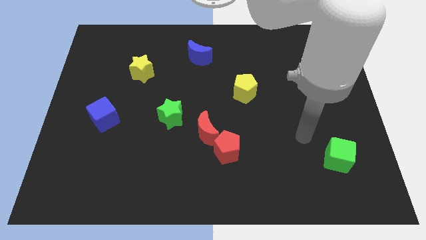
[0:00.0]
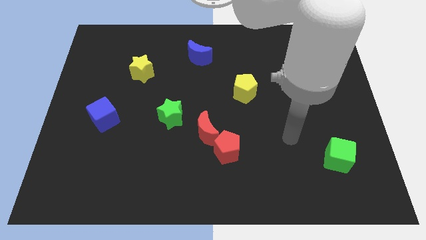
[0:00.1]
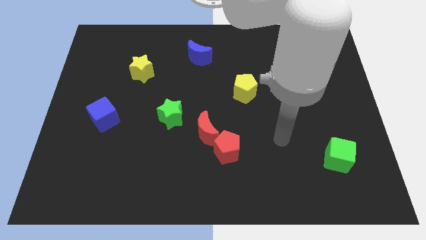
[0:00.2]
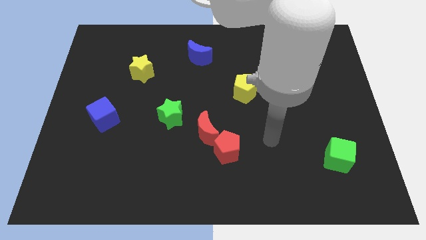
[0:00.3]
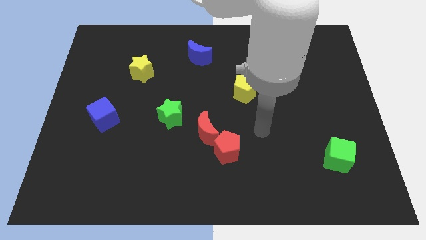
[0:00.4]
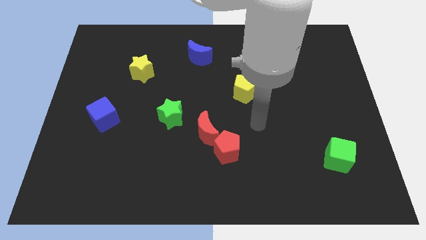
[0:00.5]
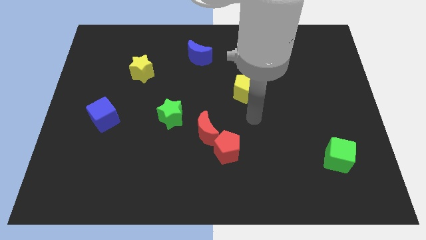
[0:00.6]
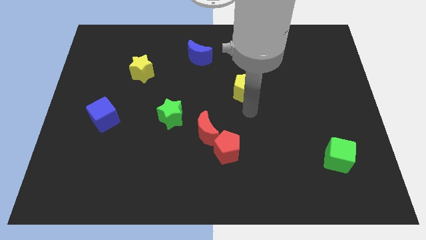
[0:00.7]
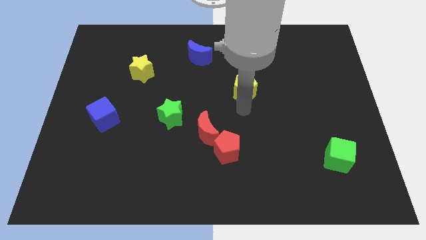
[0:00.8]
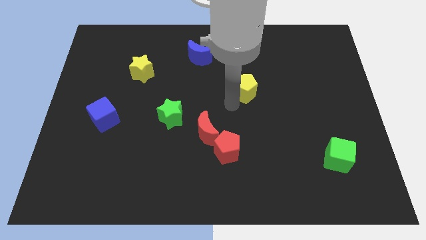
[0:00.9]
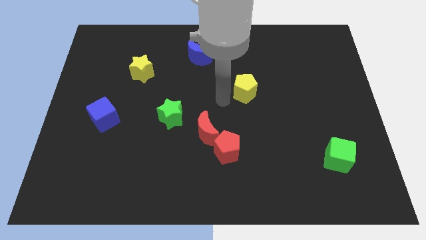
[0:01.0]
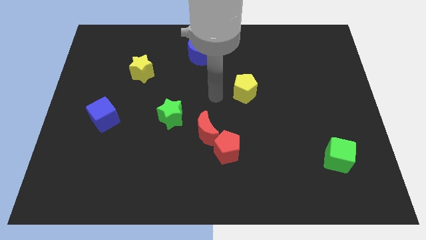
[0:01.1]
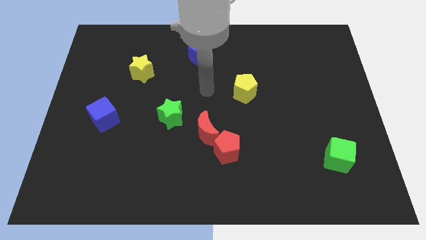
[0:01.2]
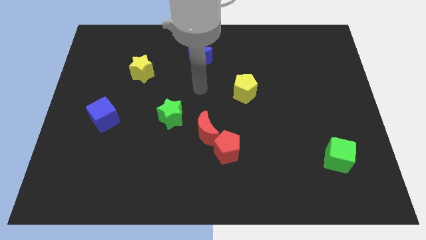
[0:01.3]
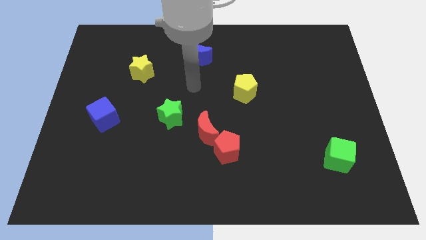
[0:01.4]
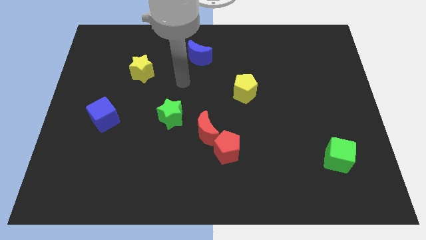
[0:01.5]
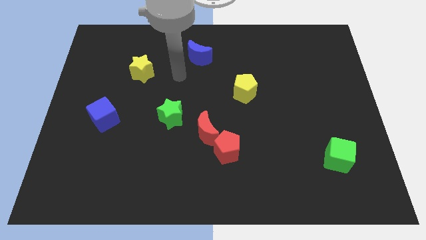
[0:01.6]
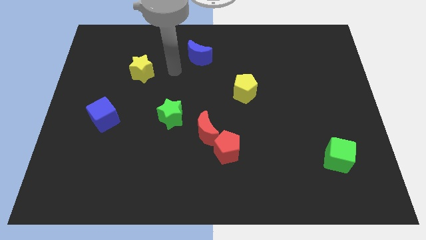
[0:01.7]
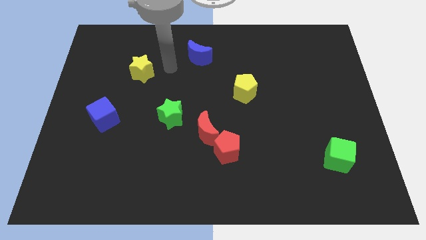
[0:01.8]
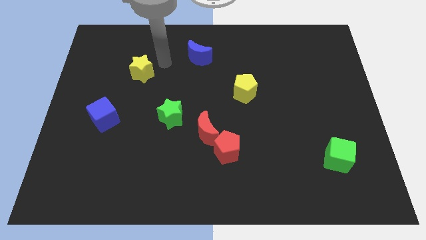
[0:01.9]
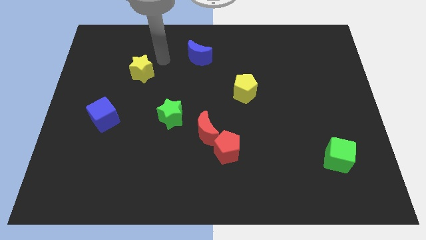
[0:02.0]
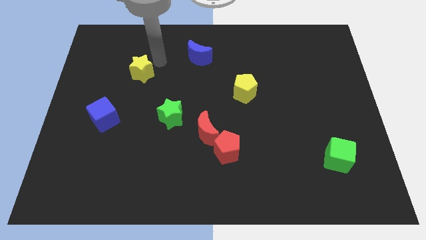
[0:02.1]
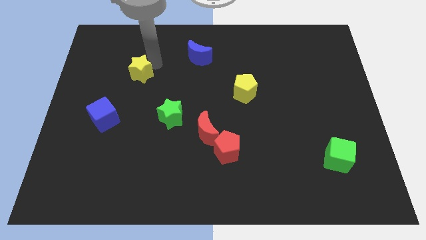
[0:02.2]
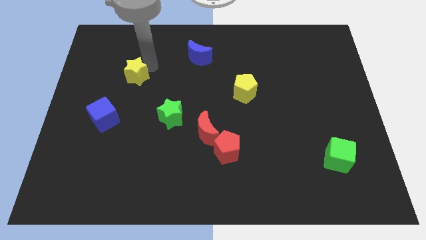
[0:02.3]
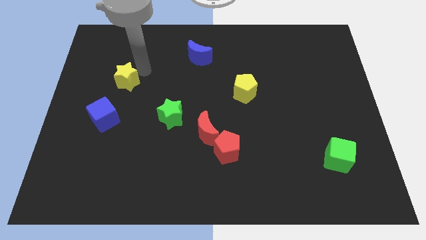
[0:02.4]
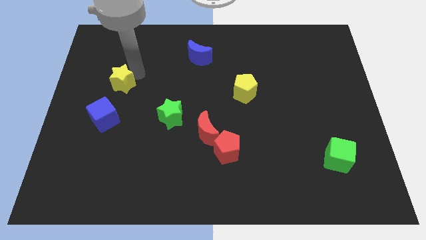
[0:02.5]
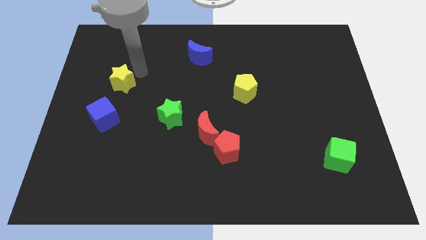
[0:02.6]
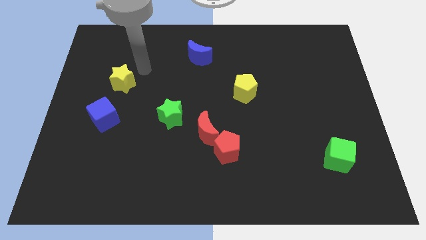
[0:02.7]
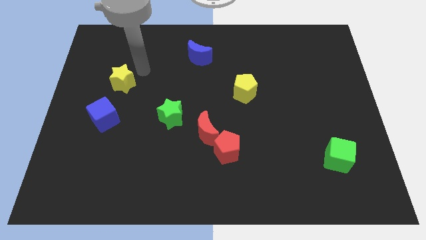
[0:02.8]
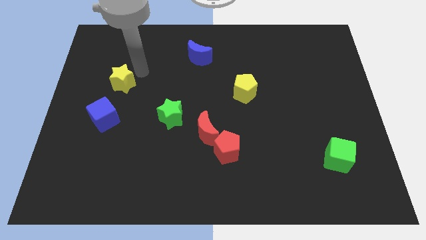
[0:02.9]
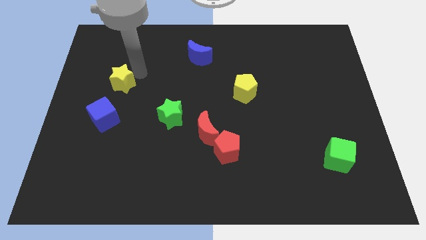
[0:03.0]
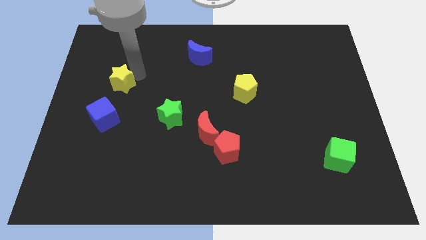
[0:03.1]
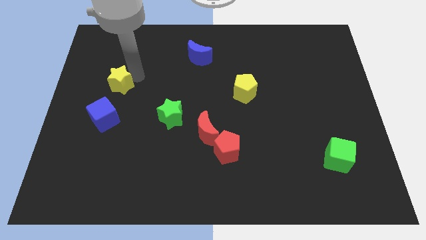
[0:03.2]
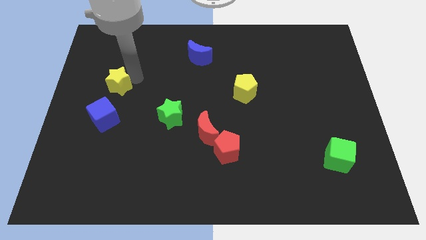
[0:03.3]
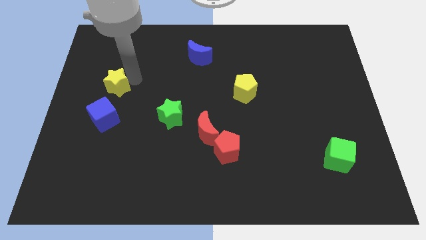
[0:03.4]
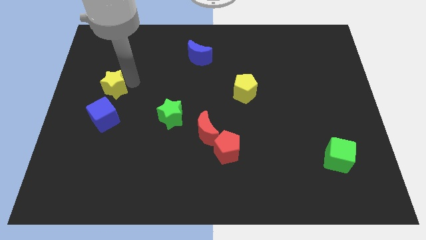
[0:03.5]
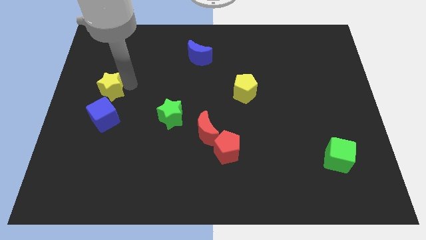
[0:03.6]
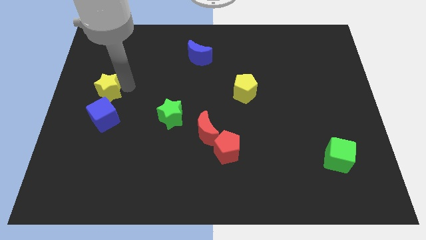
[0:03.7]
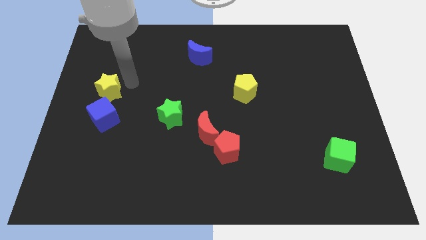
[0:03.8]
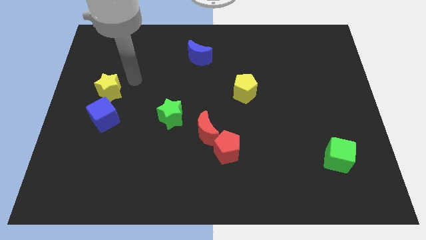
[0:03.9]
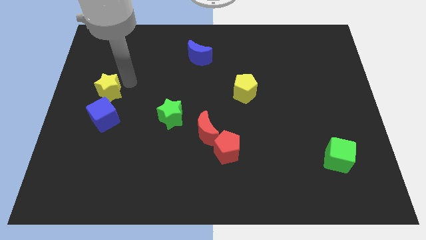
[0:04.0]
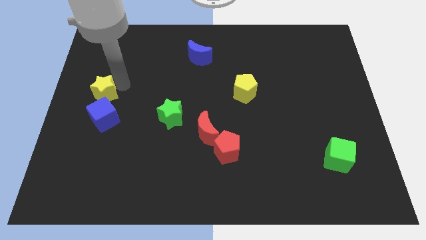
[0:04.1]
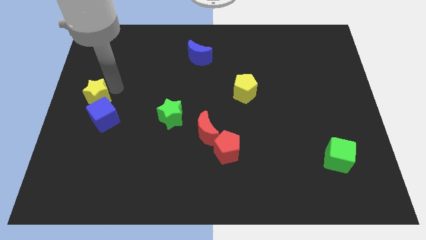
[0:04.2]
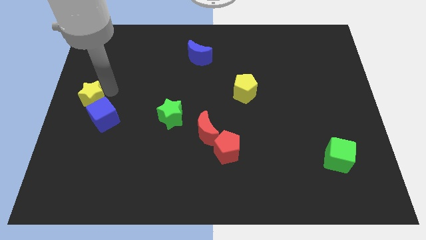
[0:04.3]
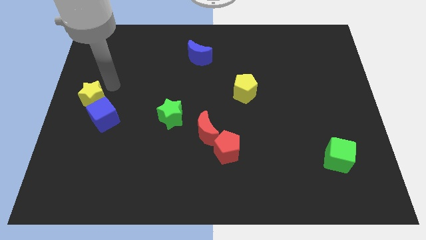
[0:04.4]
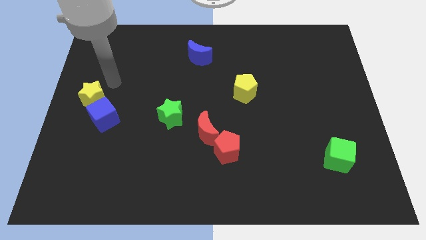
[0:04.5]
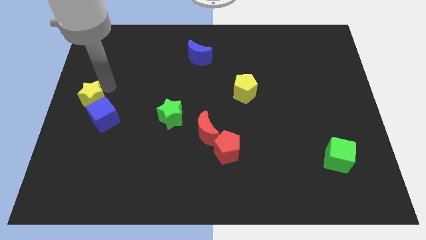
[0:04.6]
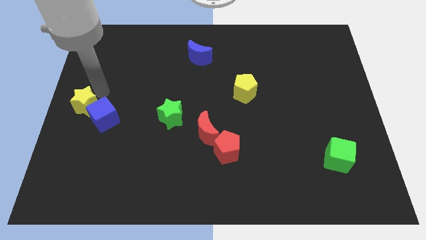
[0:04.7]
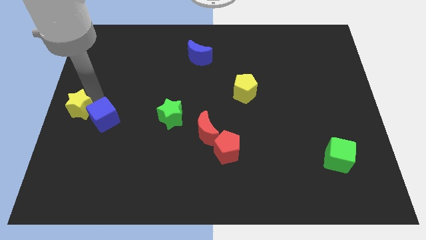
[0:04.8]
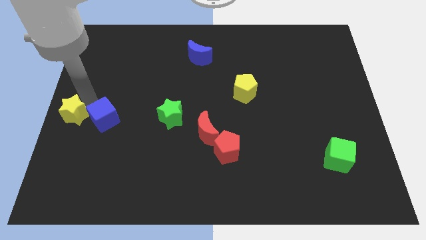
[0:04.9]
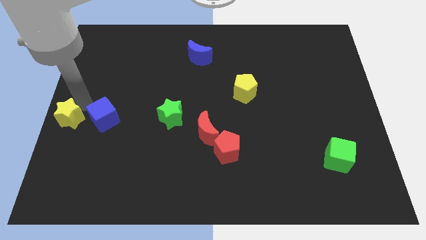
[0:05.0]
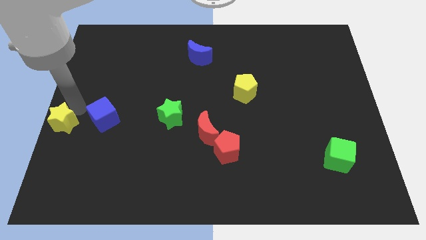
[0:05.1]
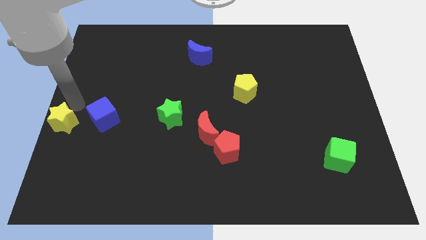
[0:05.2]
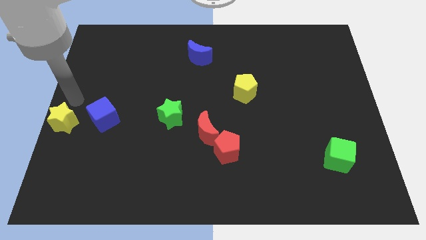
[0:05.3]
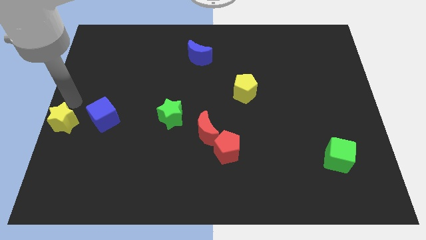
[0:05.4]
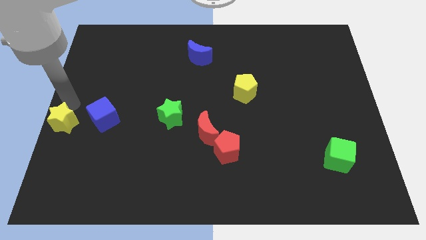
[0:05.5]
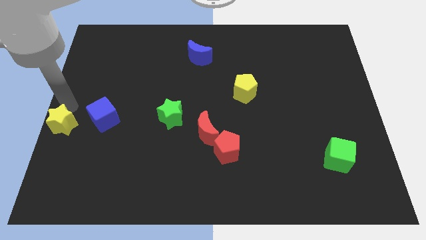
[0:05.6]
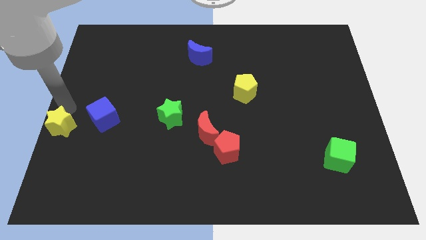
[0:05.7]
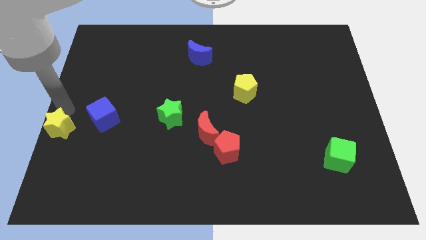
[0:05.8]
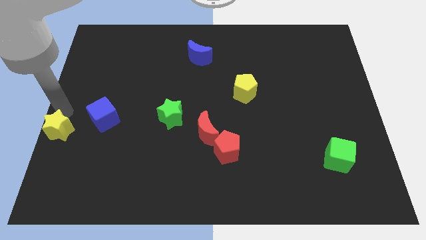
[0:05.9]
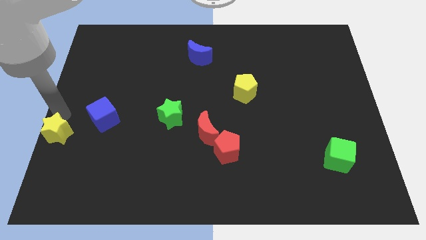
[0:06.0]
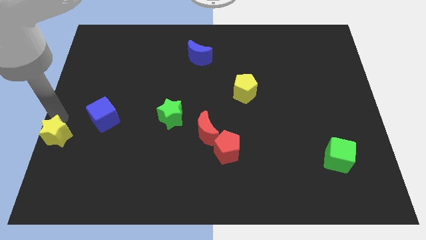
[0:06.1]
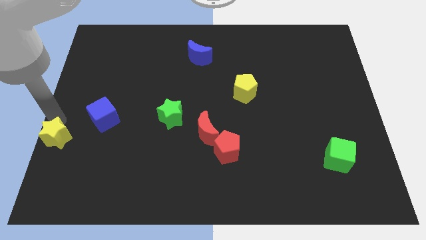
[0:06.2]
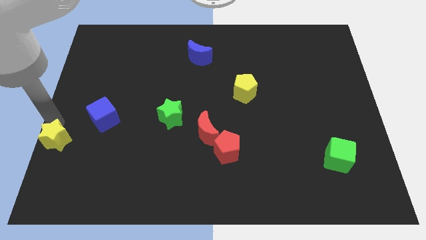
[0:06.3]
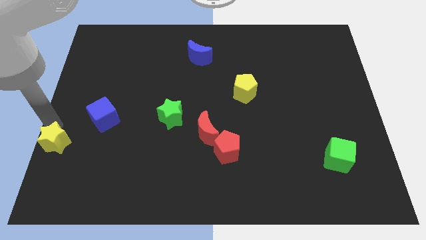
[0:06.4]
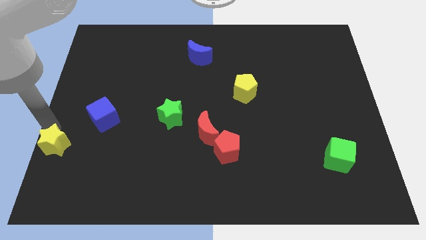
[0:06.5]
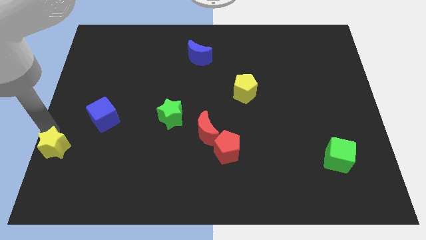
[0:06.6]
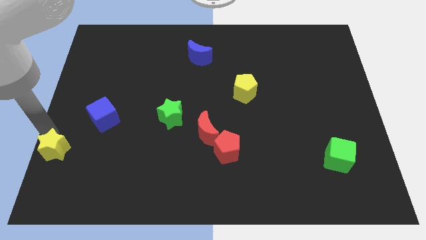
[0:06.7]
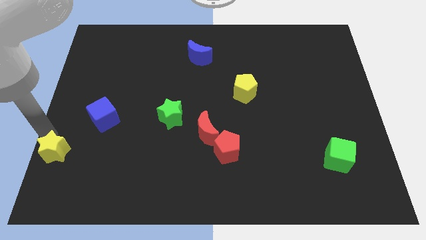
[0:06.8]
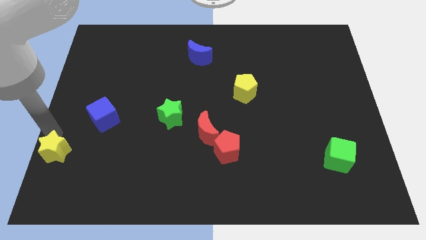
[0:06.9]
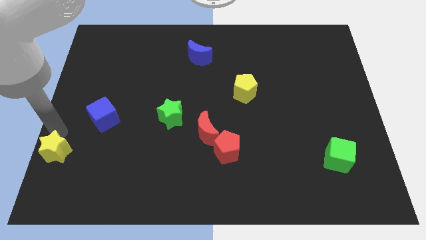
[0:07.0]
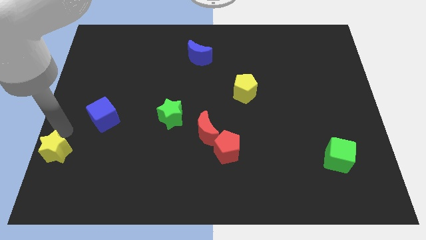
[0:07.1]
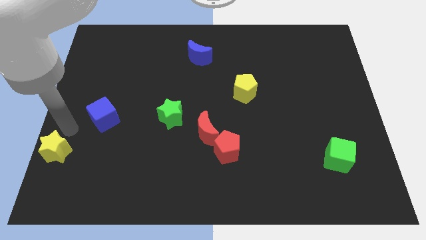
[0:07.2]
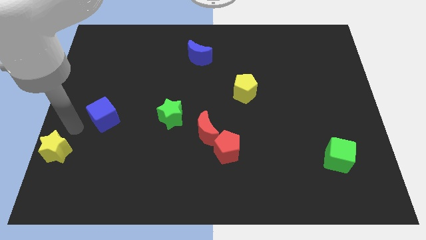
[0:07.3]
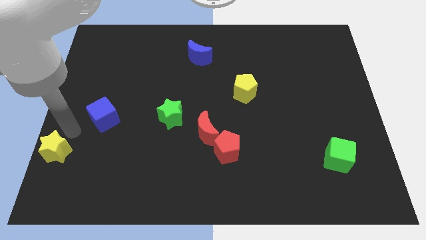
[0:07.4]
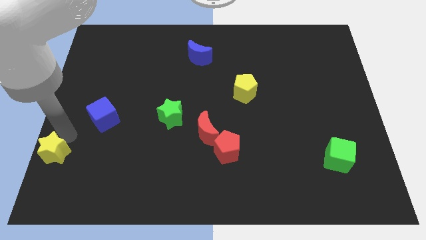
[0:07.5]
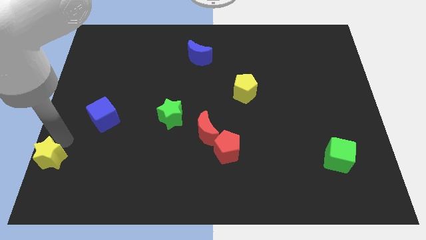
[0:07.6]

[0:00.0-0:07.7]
slide the yellow star to the bottom left corner

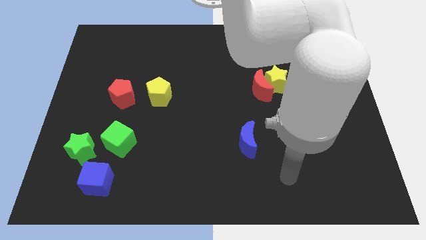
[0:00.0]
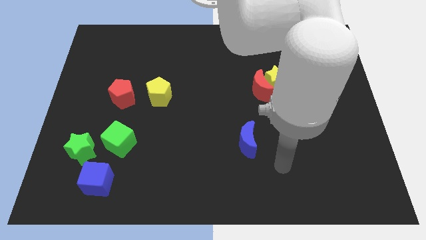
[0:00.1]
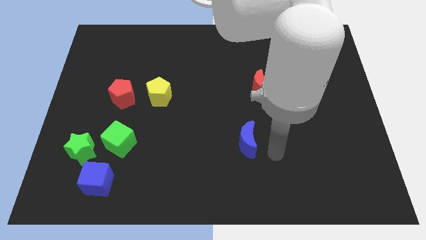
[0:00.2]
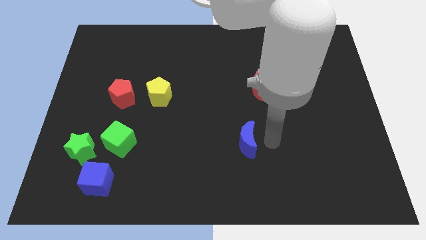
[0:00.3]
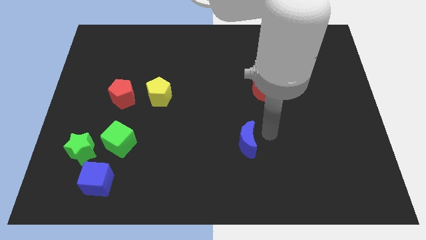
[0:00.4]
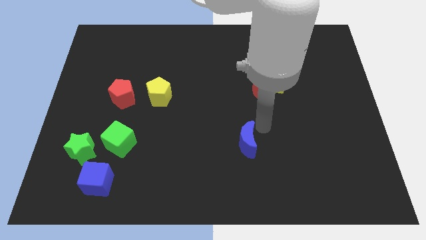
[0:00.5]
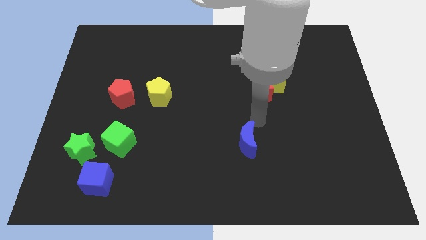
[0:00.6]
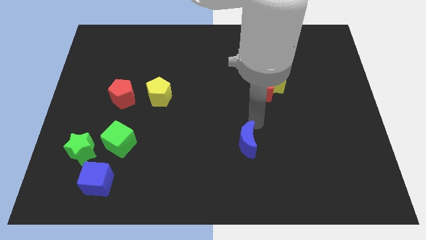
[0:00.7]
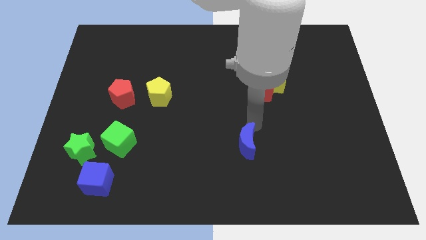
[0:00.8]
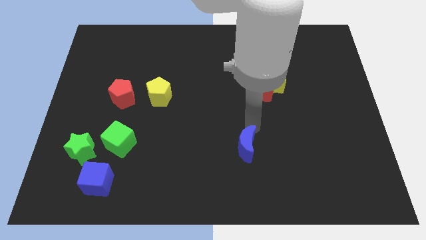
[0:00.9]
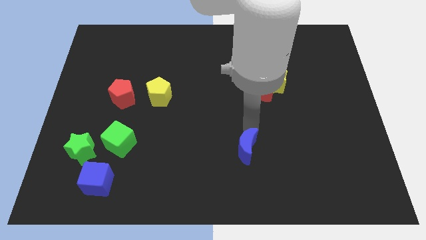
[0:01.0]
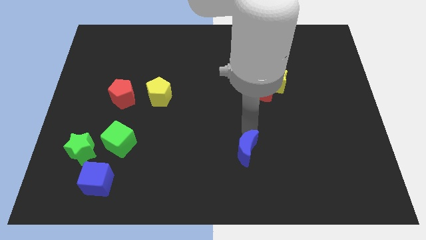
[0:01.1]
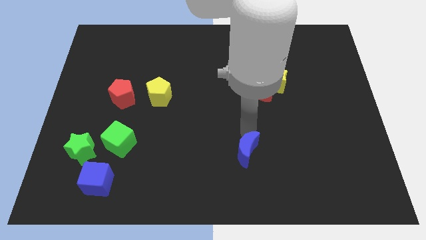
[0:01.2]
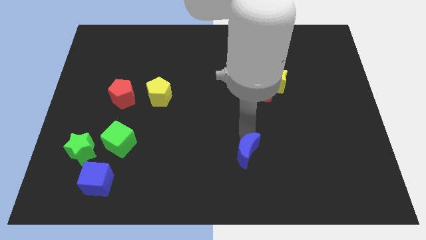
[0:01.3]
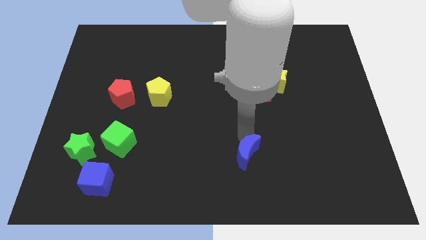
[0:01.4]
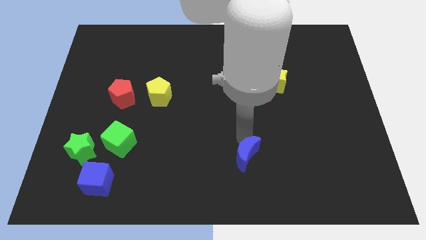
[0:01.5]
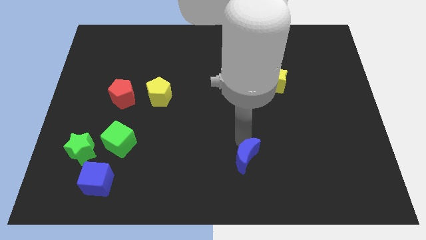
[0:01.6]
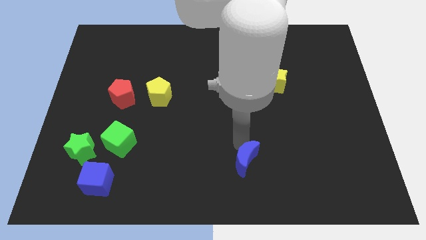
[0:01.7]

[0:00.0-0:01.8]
push the blue moon to the bottom
